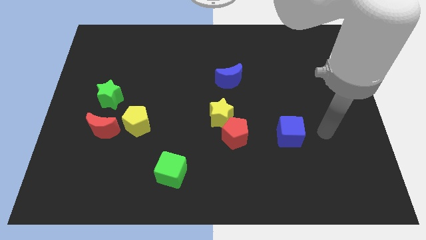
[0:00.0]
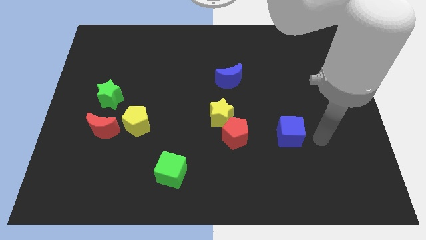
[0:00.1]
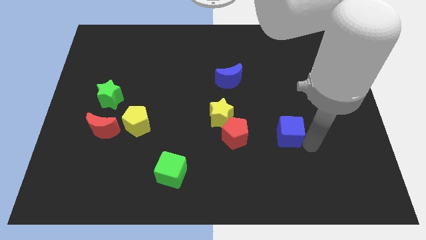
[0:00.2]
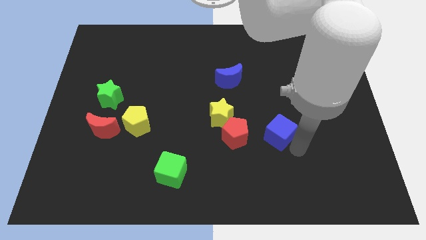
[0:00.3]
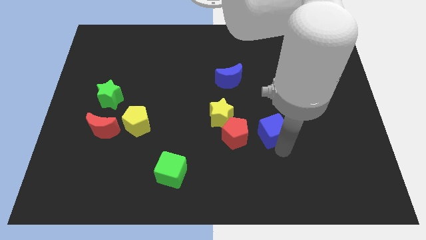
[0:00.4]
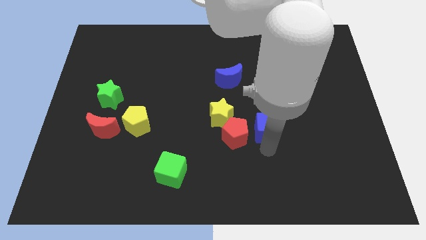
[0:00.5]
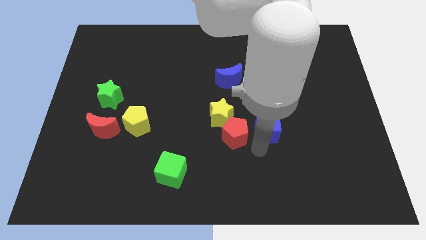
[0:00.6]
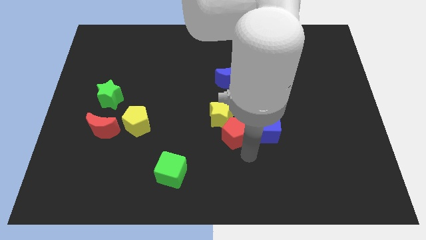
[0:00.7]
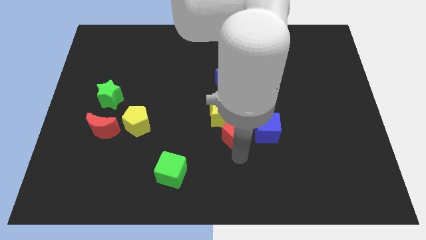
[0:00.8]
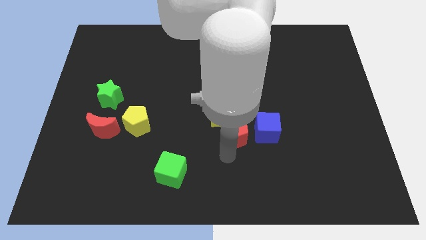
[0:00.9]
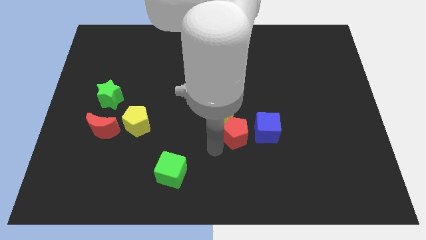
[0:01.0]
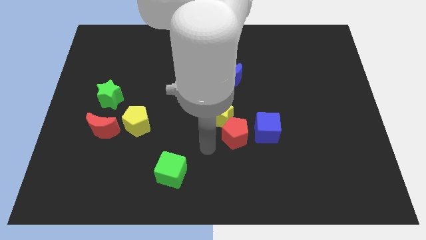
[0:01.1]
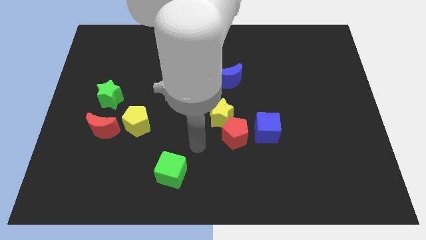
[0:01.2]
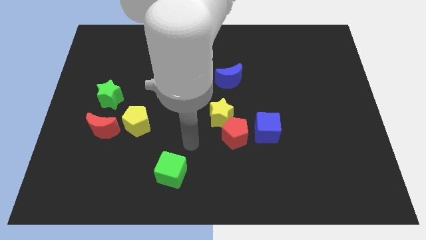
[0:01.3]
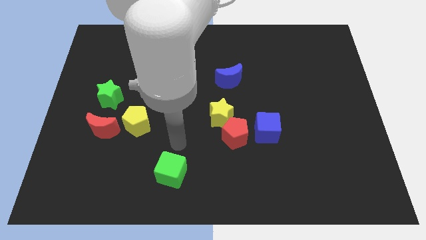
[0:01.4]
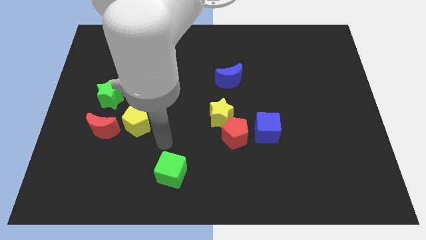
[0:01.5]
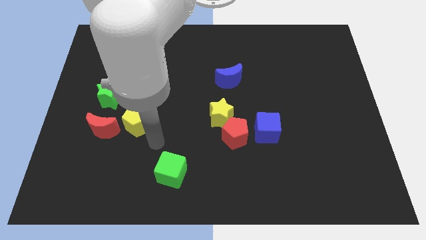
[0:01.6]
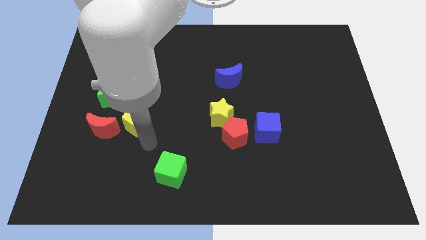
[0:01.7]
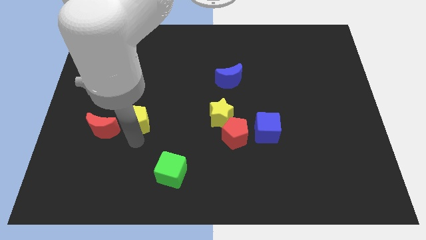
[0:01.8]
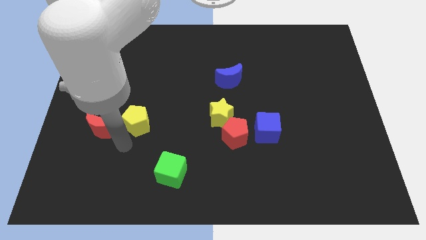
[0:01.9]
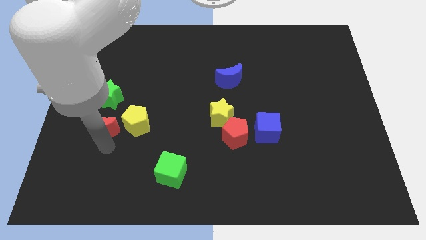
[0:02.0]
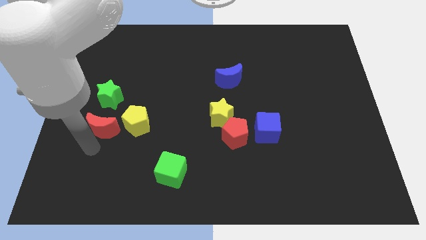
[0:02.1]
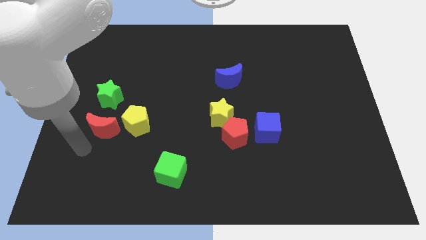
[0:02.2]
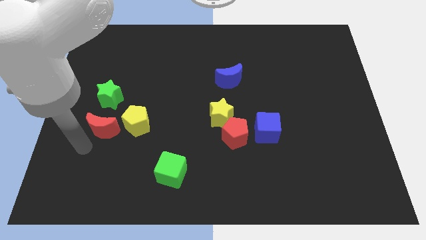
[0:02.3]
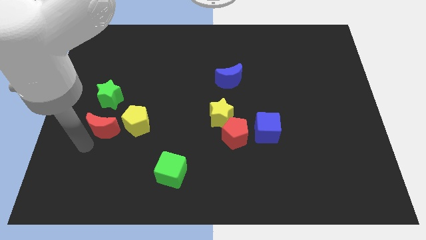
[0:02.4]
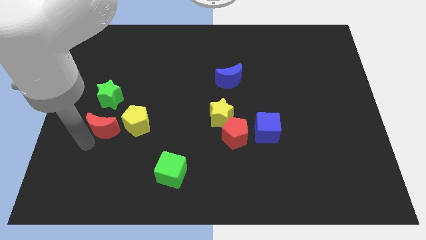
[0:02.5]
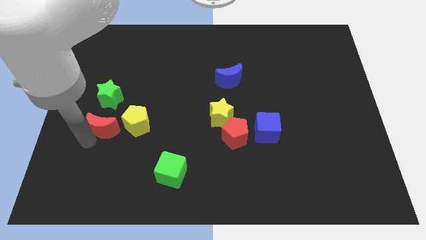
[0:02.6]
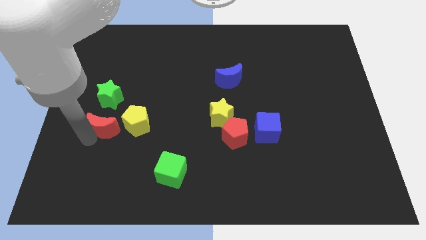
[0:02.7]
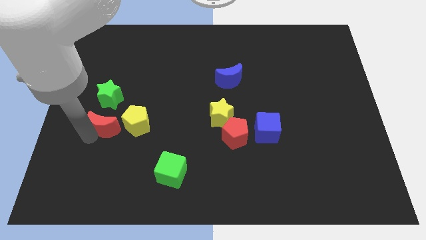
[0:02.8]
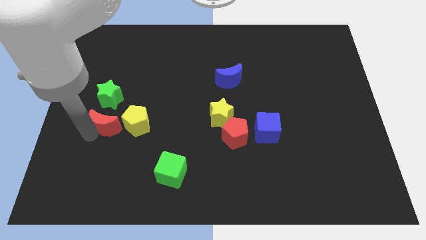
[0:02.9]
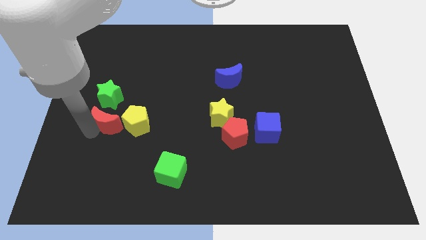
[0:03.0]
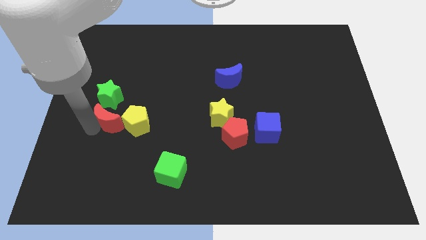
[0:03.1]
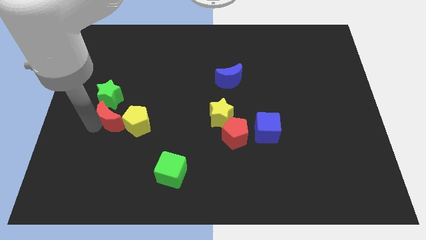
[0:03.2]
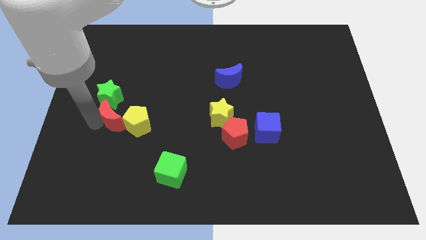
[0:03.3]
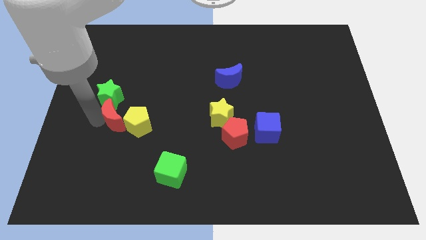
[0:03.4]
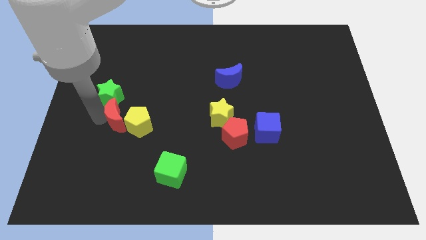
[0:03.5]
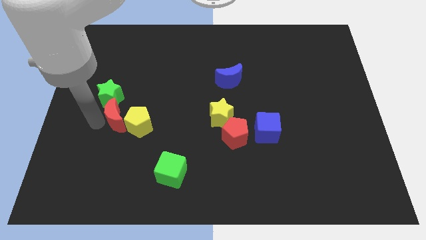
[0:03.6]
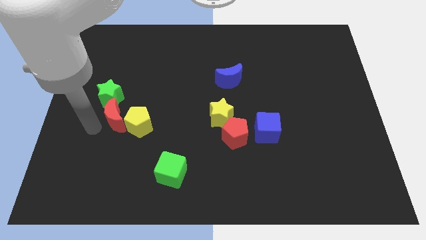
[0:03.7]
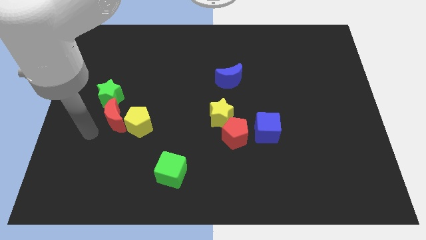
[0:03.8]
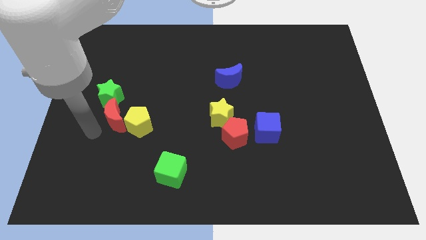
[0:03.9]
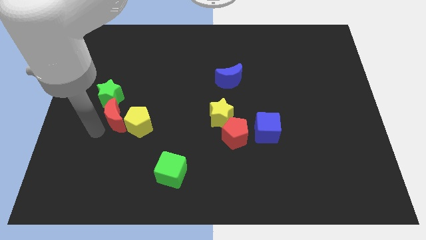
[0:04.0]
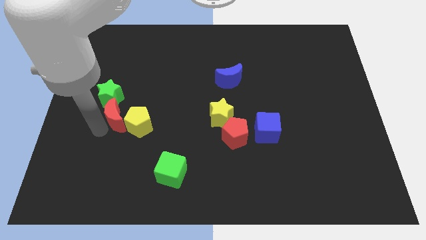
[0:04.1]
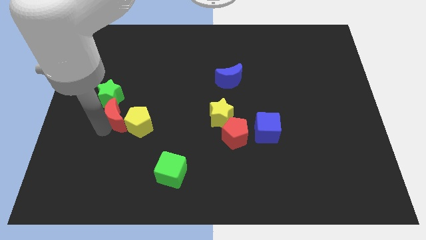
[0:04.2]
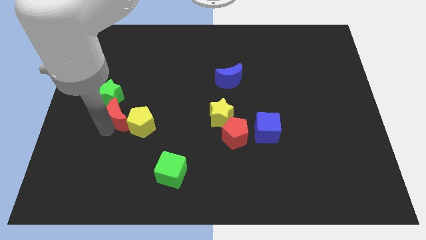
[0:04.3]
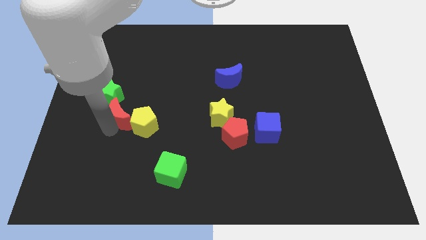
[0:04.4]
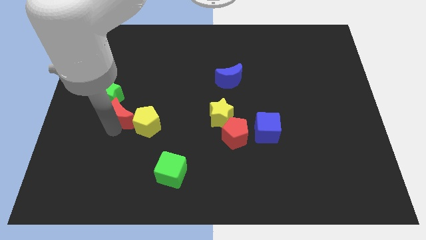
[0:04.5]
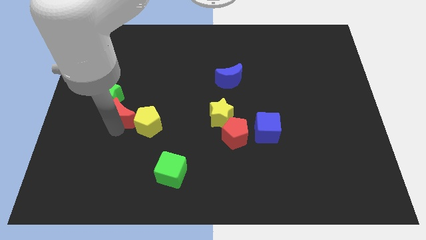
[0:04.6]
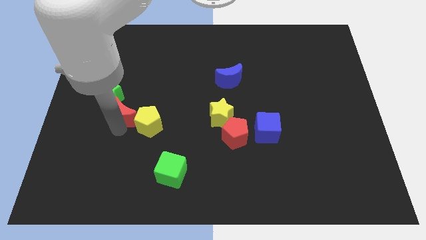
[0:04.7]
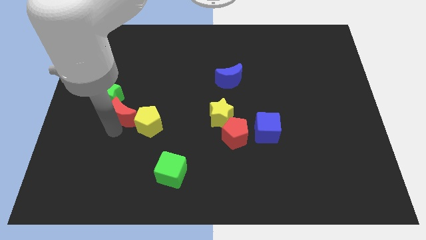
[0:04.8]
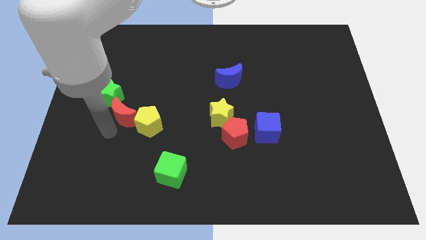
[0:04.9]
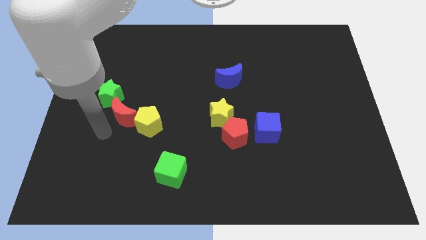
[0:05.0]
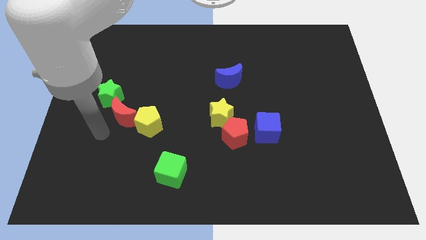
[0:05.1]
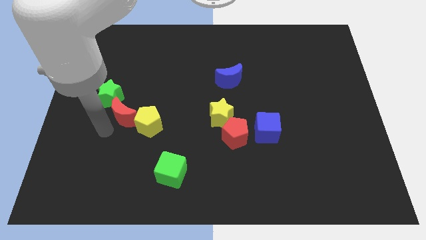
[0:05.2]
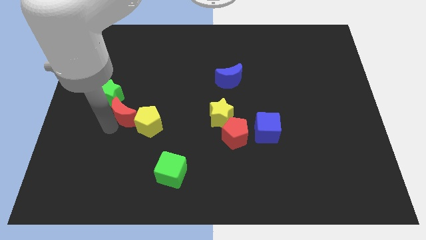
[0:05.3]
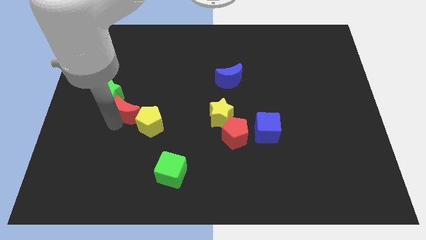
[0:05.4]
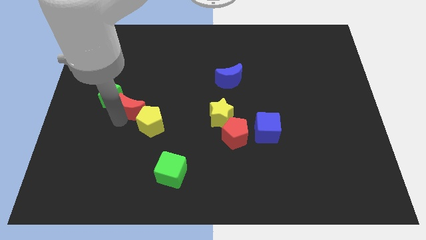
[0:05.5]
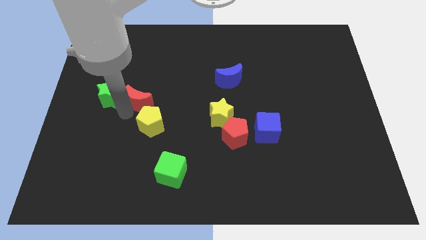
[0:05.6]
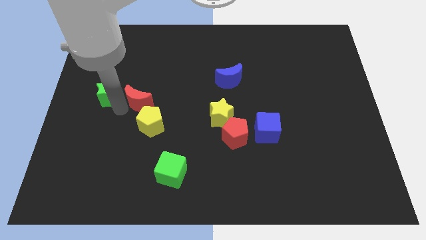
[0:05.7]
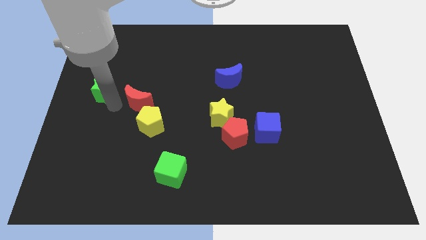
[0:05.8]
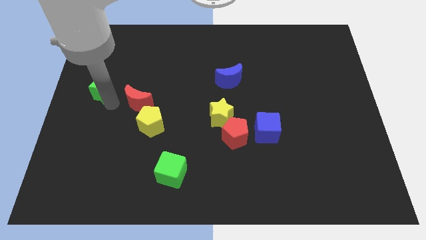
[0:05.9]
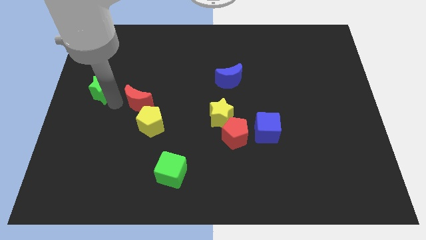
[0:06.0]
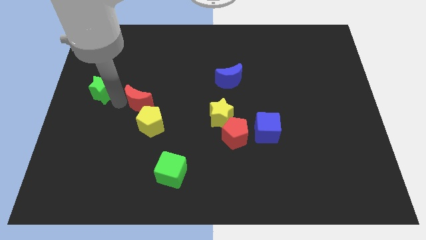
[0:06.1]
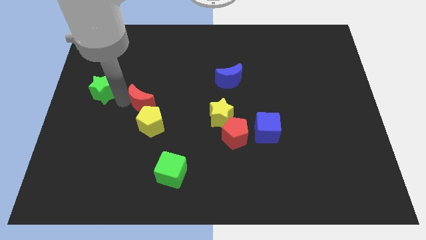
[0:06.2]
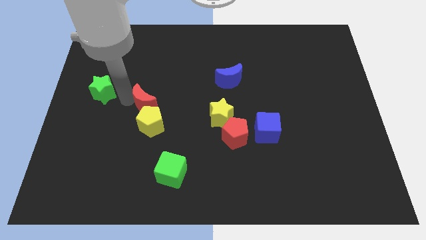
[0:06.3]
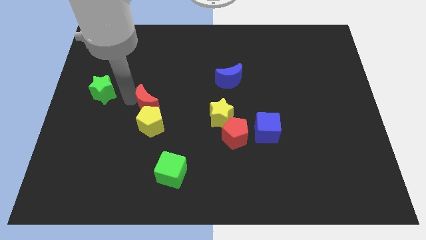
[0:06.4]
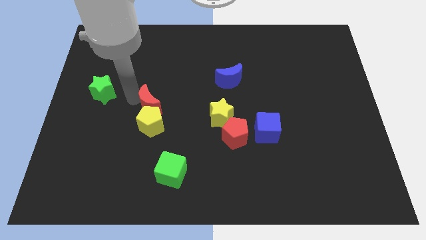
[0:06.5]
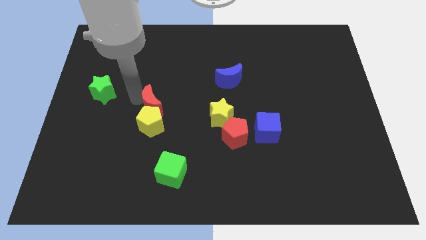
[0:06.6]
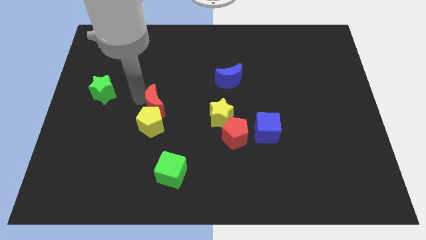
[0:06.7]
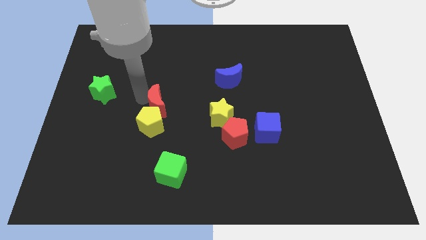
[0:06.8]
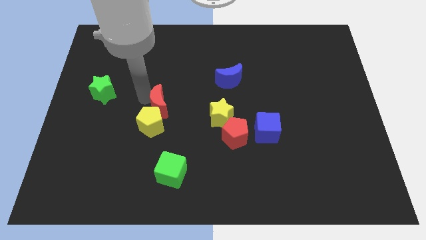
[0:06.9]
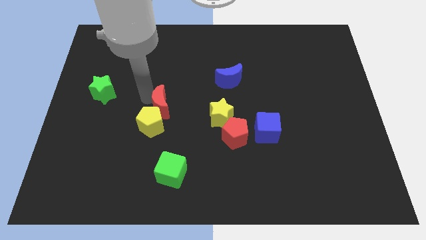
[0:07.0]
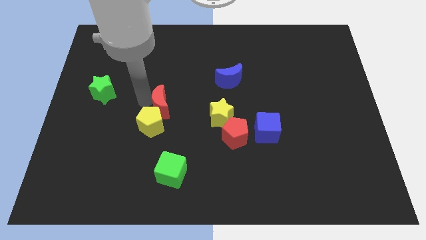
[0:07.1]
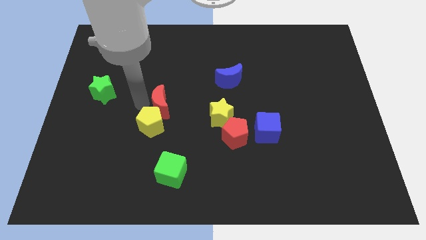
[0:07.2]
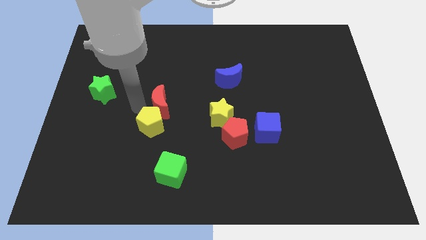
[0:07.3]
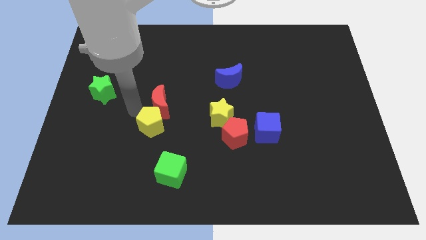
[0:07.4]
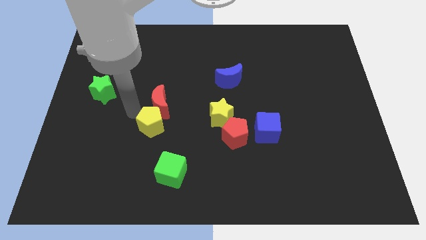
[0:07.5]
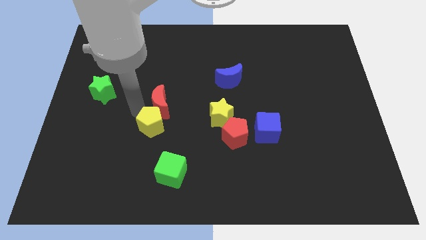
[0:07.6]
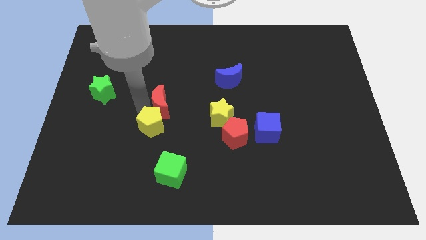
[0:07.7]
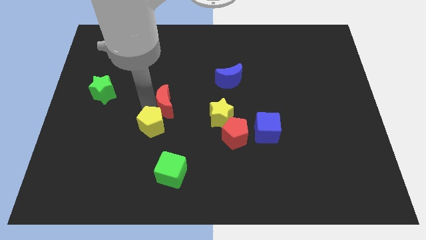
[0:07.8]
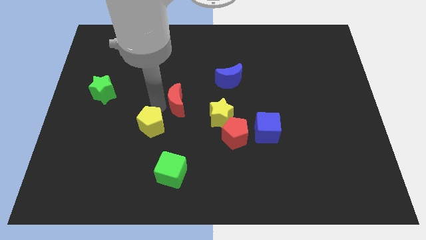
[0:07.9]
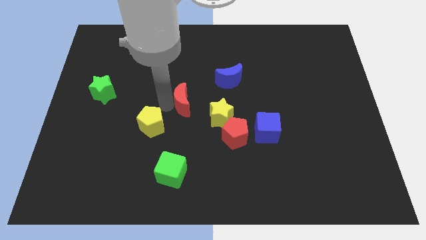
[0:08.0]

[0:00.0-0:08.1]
slide the red moon to the top left side of the yellow star
